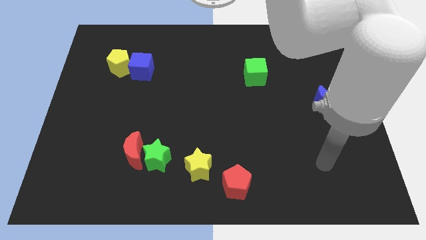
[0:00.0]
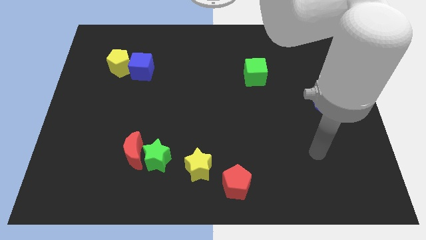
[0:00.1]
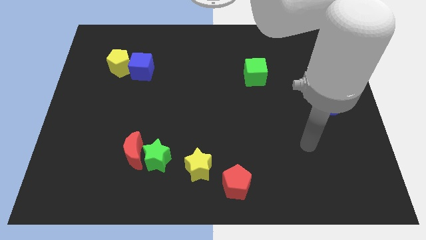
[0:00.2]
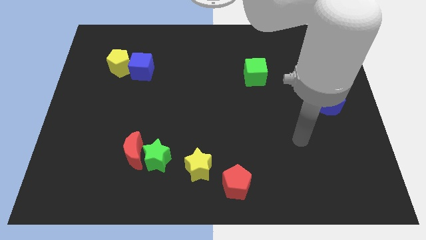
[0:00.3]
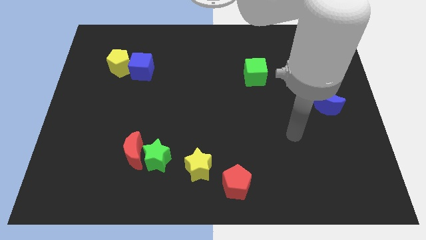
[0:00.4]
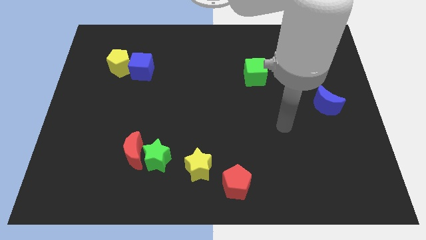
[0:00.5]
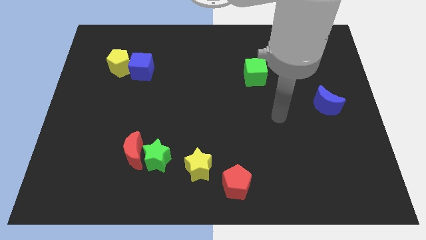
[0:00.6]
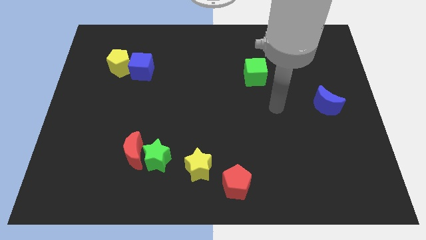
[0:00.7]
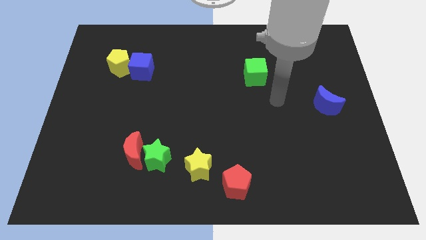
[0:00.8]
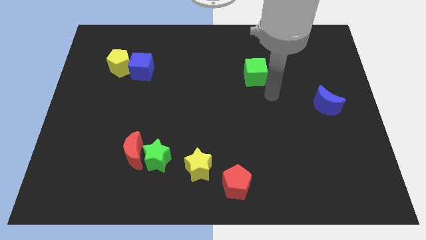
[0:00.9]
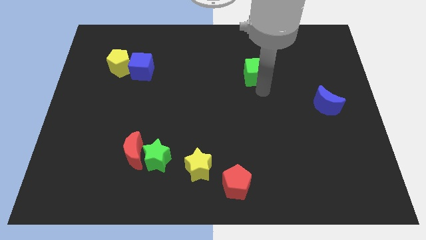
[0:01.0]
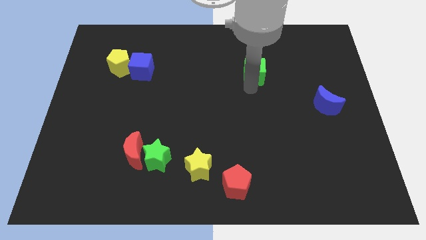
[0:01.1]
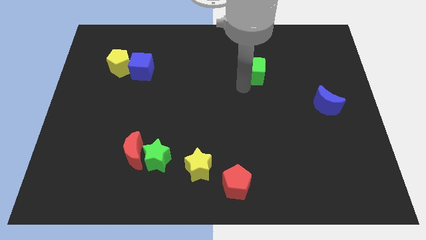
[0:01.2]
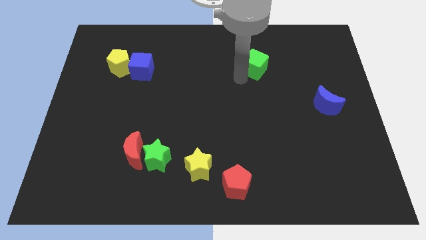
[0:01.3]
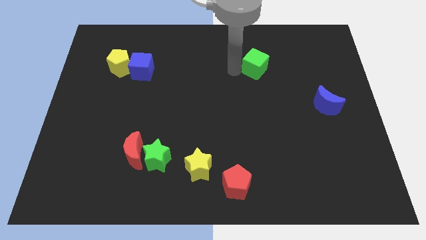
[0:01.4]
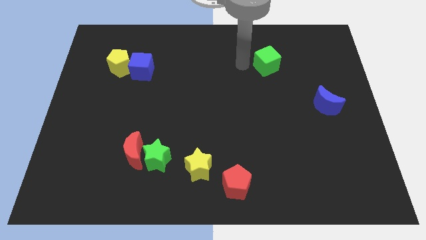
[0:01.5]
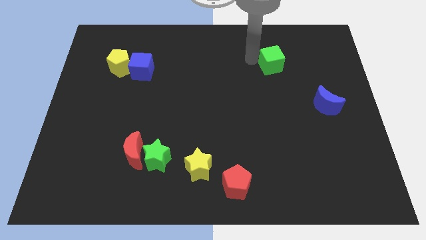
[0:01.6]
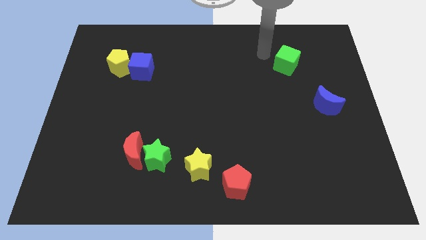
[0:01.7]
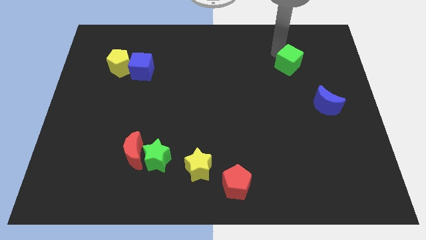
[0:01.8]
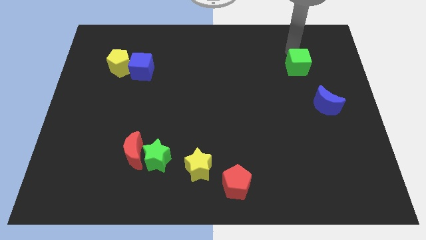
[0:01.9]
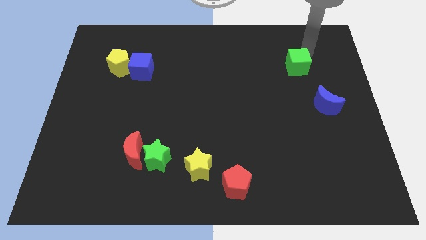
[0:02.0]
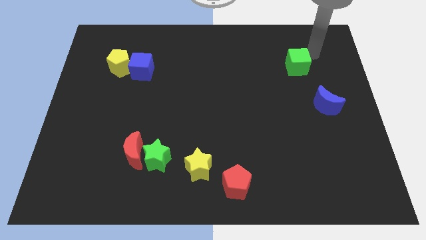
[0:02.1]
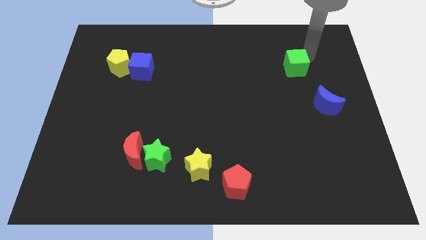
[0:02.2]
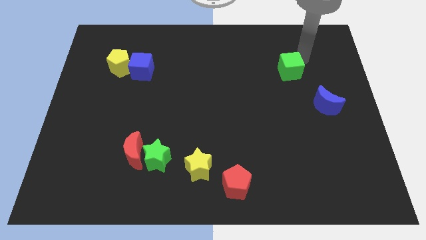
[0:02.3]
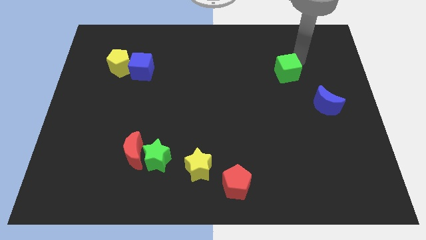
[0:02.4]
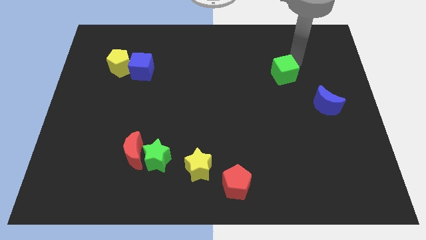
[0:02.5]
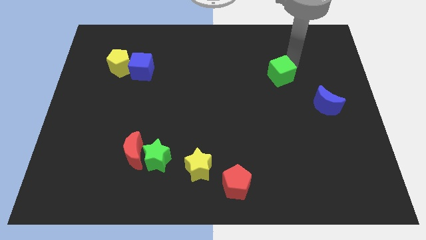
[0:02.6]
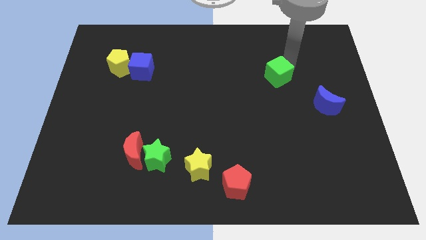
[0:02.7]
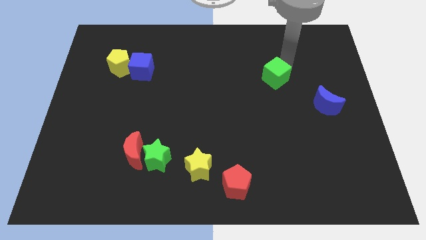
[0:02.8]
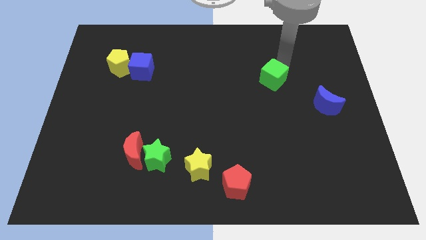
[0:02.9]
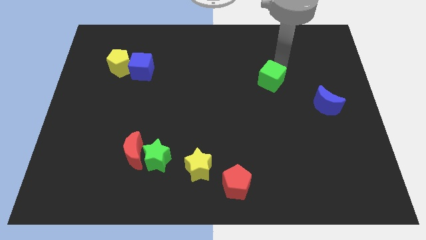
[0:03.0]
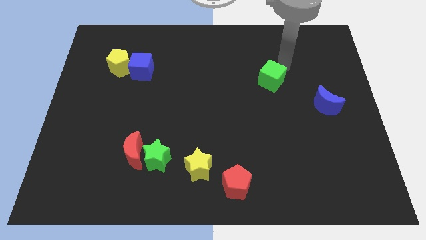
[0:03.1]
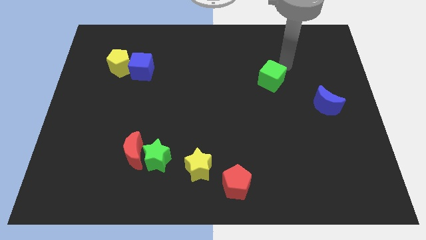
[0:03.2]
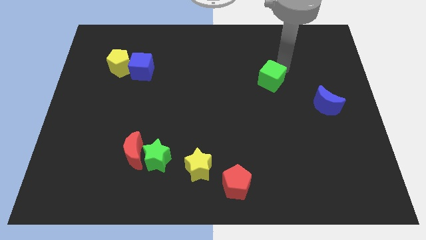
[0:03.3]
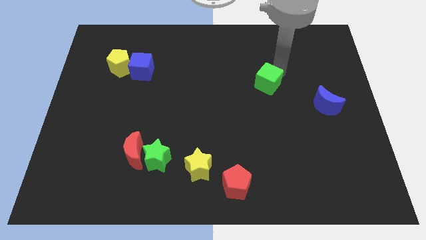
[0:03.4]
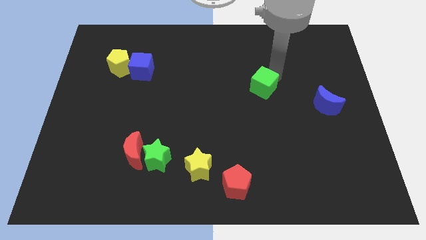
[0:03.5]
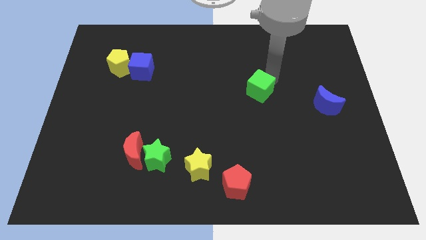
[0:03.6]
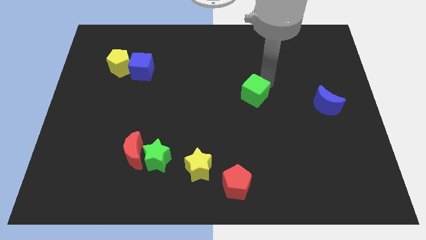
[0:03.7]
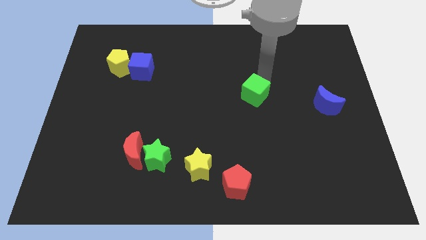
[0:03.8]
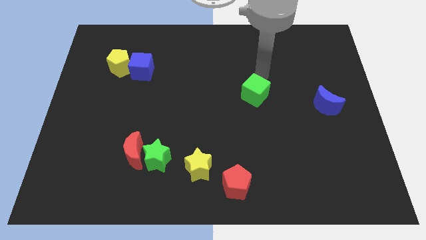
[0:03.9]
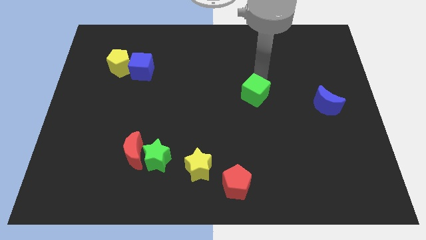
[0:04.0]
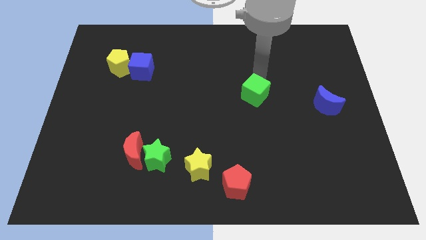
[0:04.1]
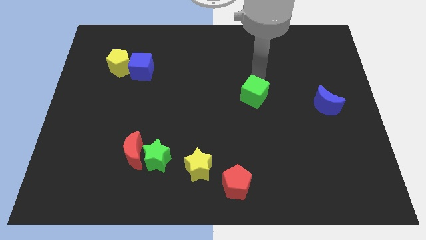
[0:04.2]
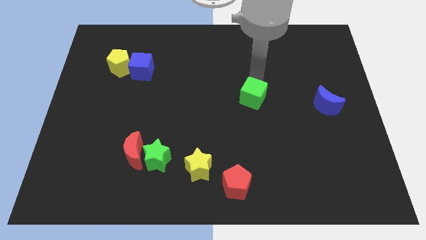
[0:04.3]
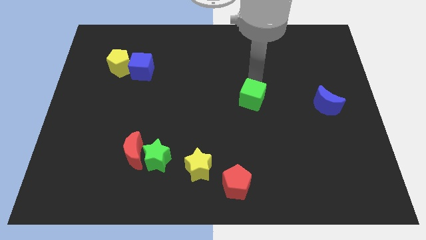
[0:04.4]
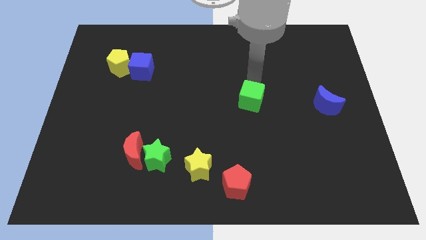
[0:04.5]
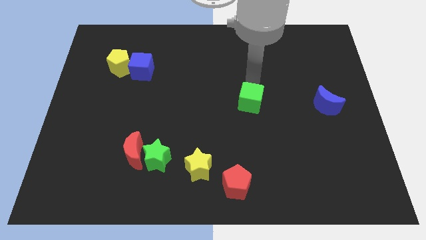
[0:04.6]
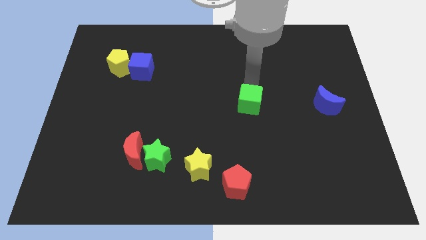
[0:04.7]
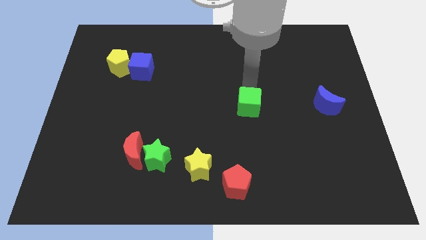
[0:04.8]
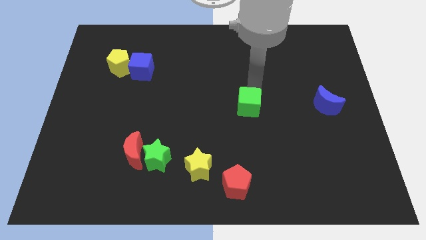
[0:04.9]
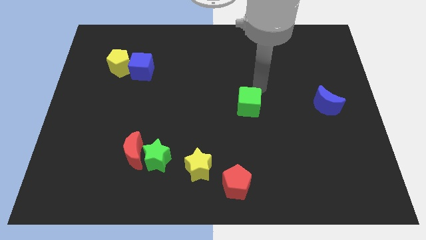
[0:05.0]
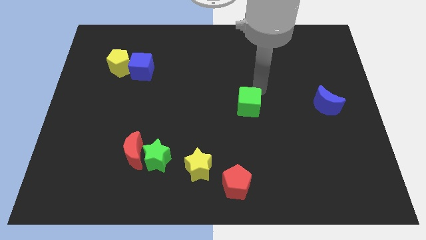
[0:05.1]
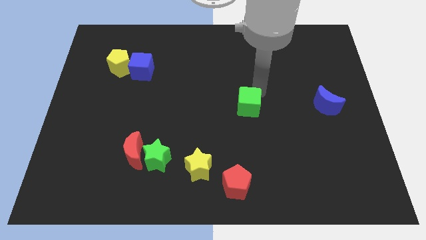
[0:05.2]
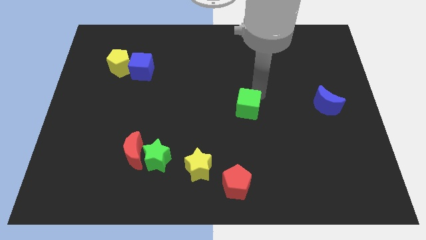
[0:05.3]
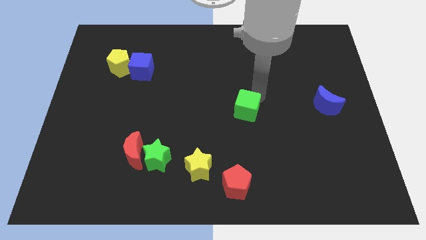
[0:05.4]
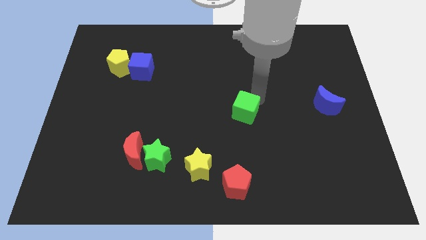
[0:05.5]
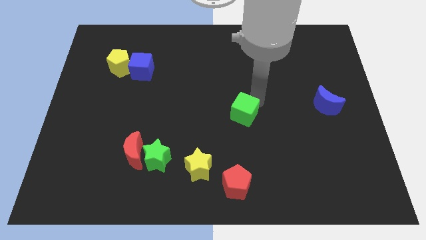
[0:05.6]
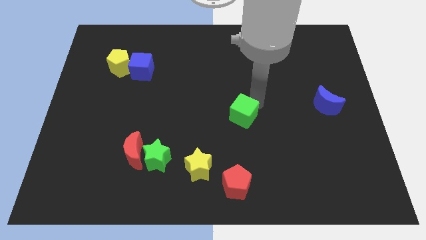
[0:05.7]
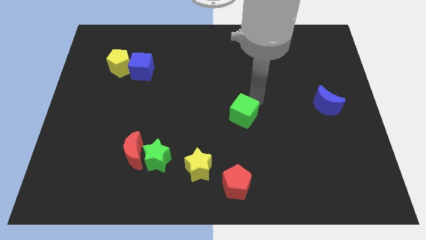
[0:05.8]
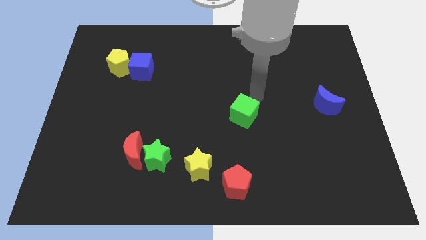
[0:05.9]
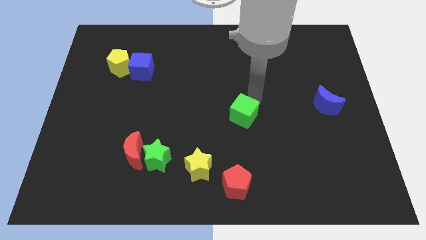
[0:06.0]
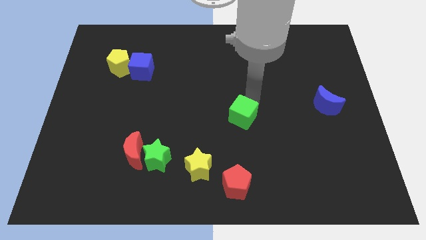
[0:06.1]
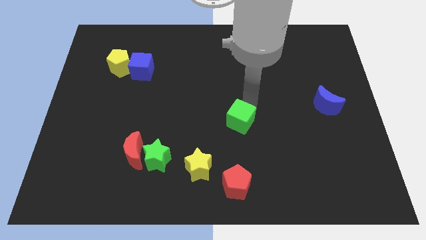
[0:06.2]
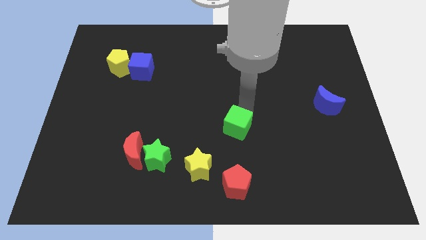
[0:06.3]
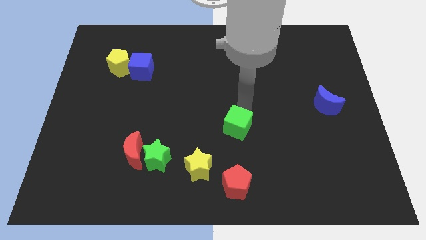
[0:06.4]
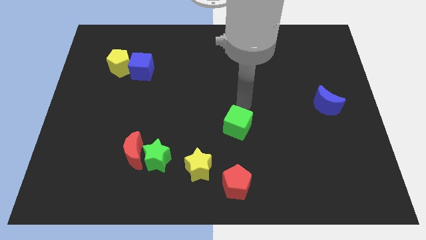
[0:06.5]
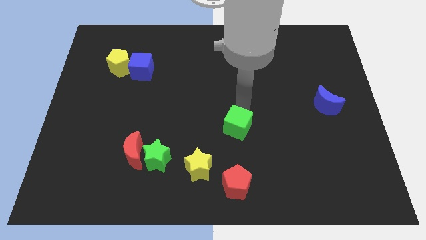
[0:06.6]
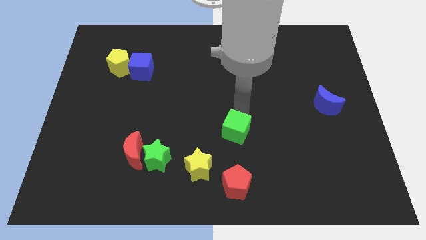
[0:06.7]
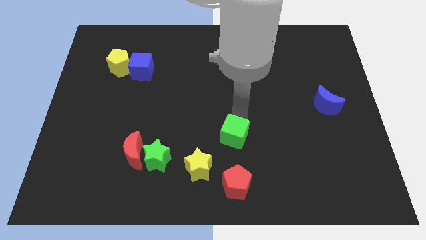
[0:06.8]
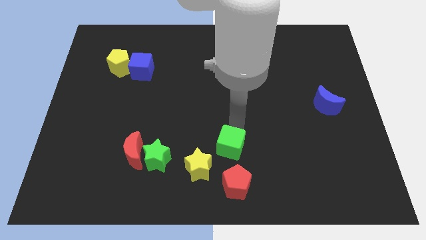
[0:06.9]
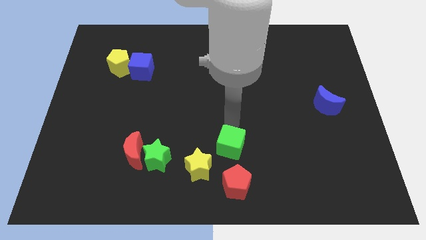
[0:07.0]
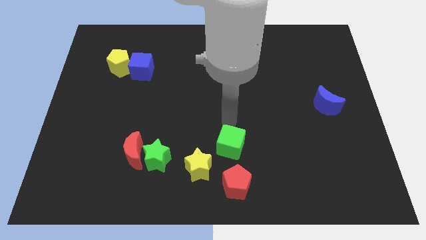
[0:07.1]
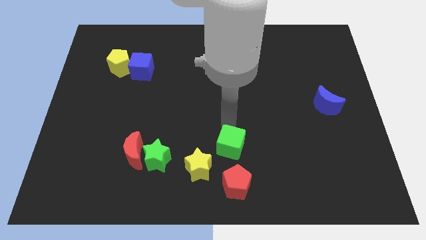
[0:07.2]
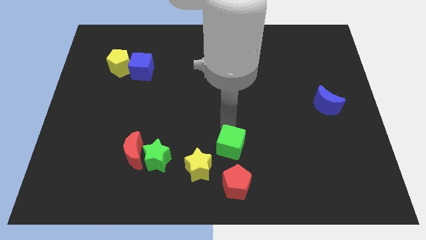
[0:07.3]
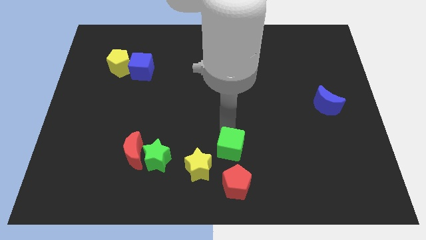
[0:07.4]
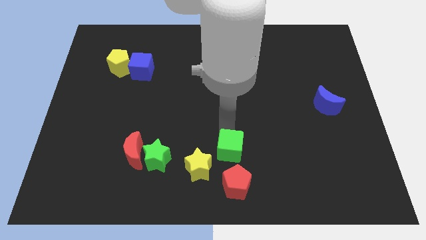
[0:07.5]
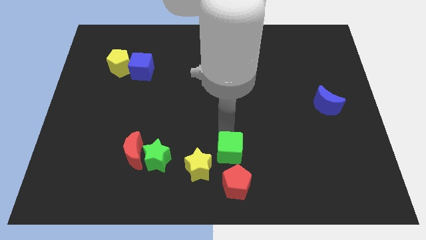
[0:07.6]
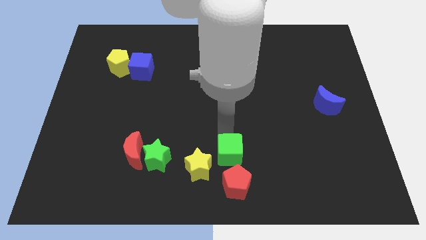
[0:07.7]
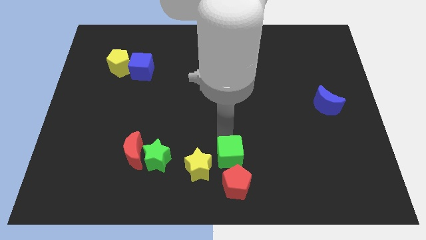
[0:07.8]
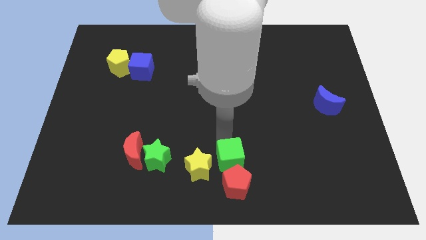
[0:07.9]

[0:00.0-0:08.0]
push the green cube to the red pentagon
